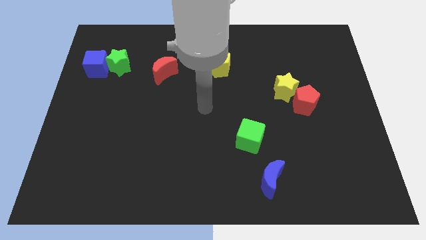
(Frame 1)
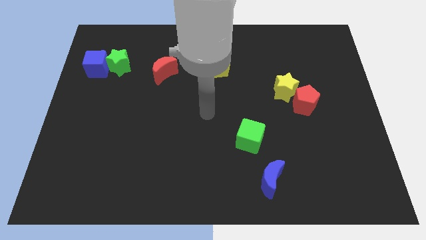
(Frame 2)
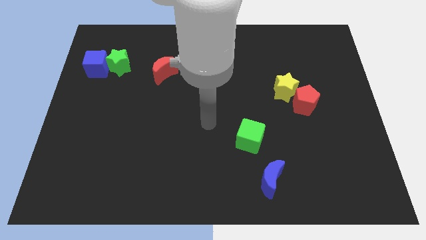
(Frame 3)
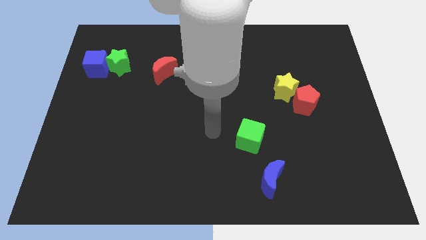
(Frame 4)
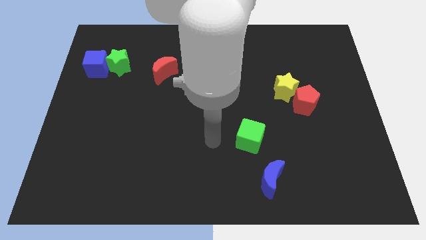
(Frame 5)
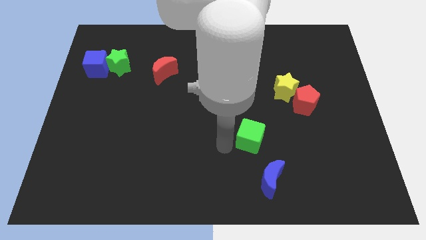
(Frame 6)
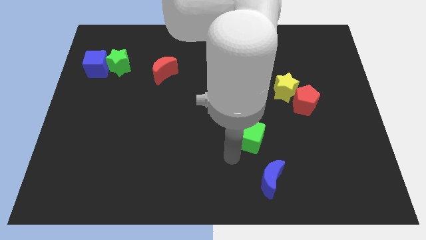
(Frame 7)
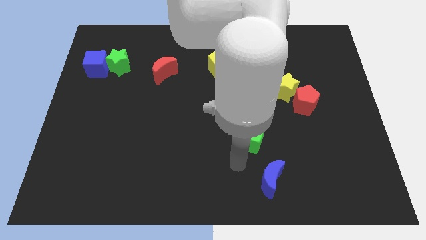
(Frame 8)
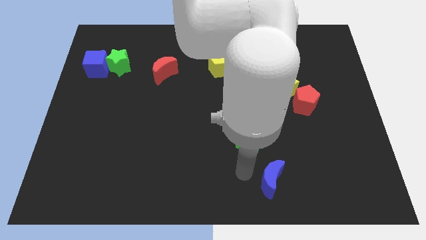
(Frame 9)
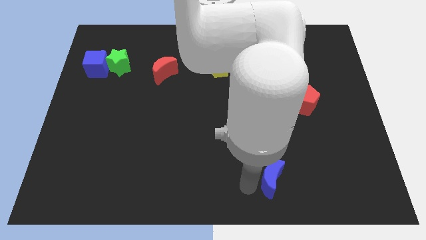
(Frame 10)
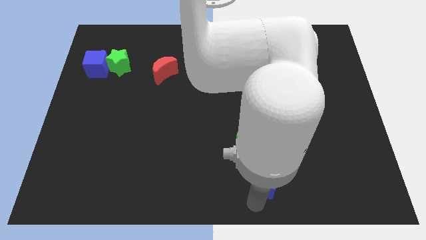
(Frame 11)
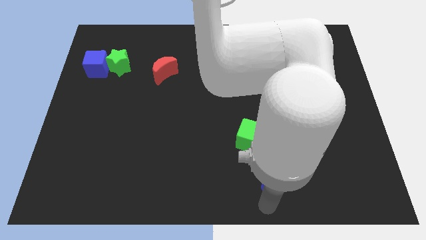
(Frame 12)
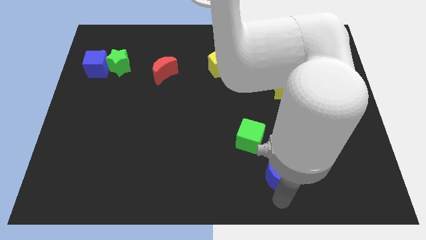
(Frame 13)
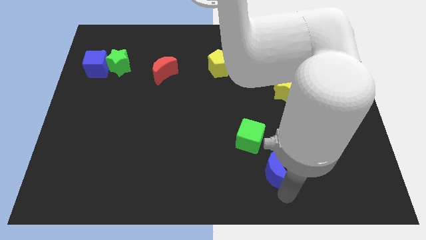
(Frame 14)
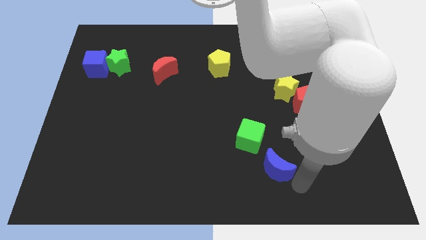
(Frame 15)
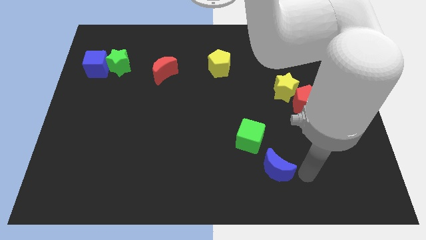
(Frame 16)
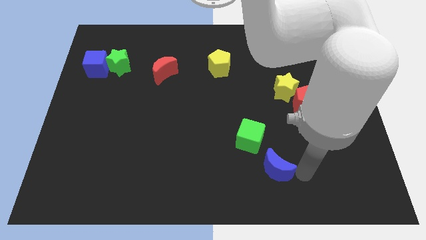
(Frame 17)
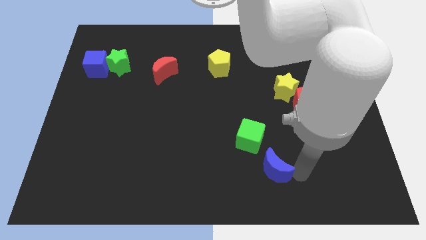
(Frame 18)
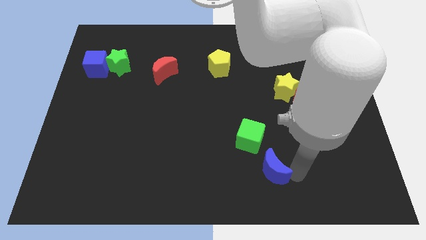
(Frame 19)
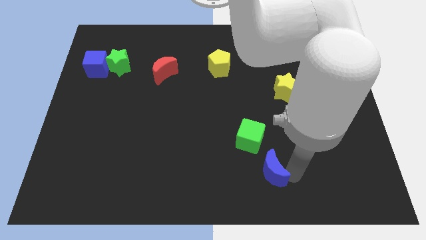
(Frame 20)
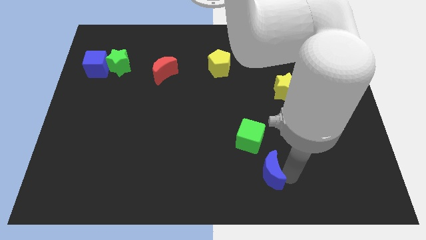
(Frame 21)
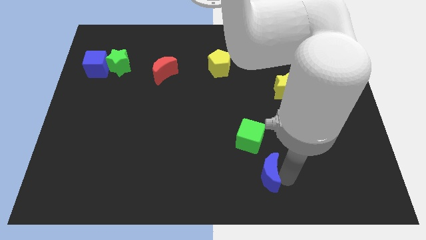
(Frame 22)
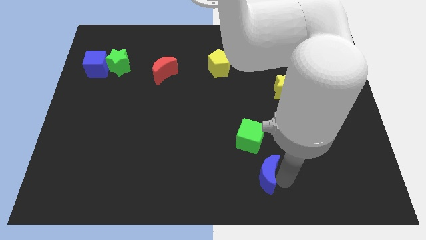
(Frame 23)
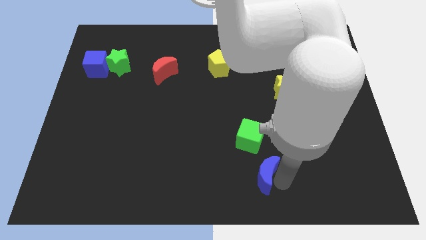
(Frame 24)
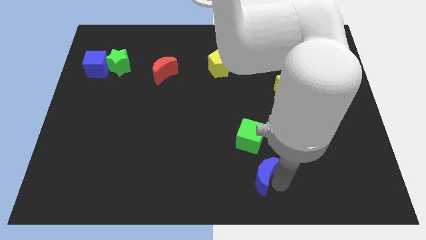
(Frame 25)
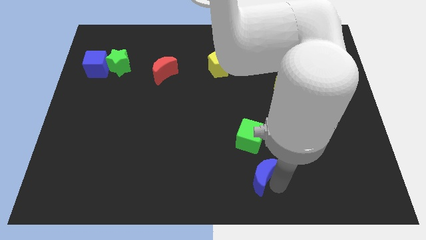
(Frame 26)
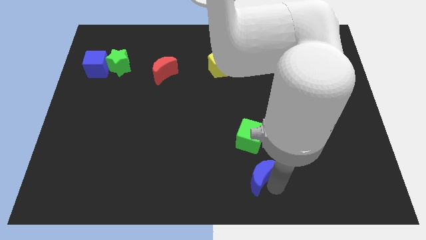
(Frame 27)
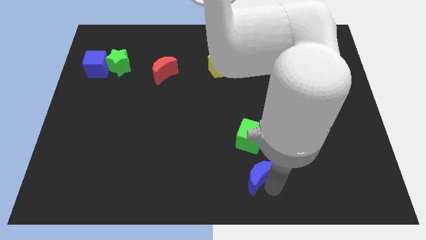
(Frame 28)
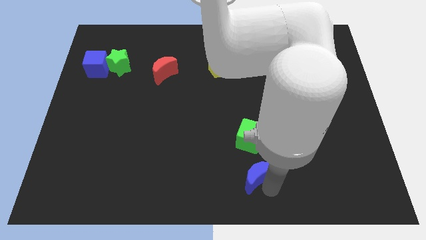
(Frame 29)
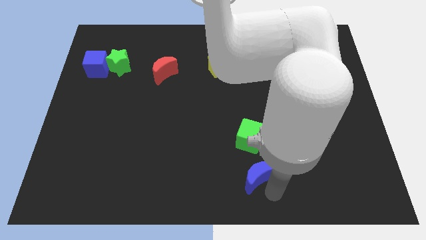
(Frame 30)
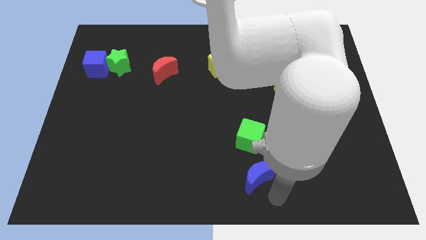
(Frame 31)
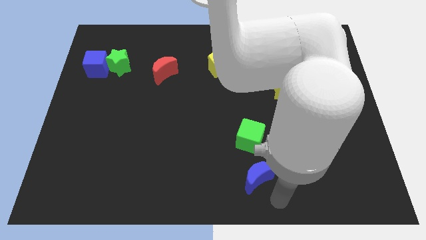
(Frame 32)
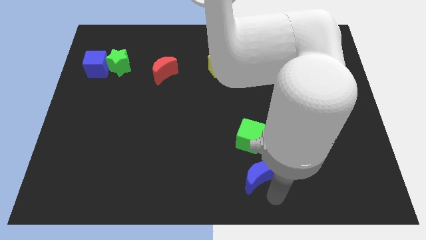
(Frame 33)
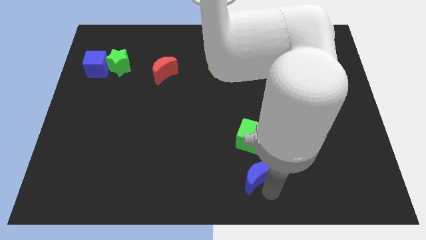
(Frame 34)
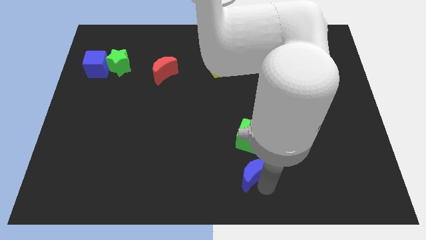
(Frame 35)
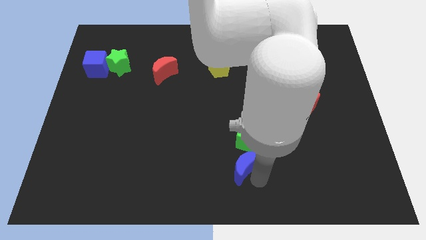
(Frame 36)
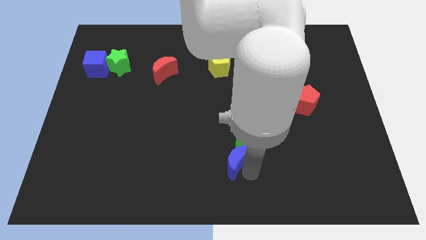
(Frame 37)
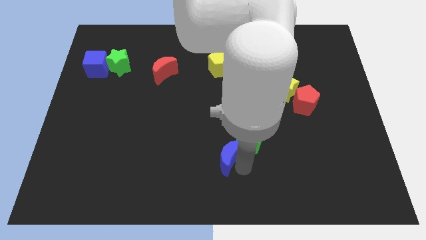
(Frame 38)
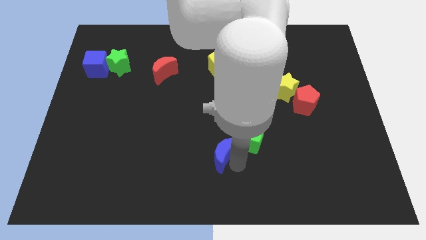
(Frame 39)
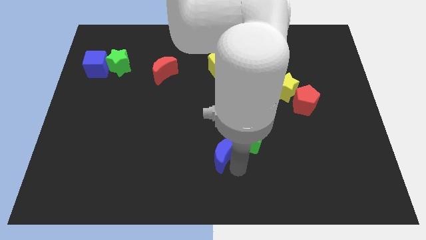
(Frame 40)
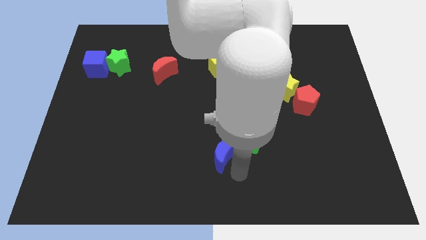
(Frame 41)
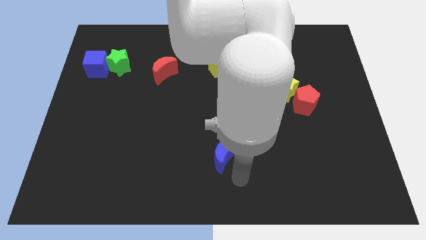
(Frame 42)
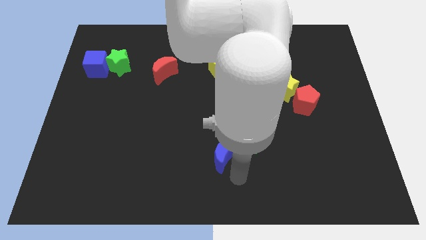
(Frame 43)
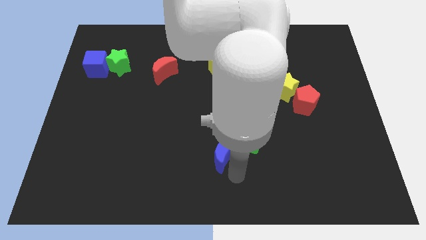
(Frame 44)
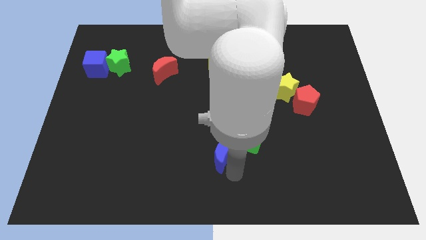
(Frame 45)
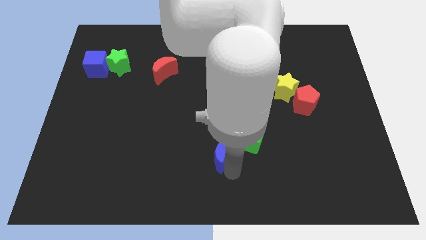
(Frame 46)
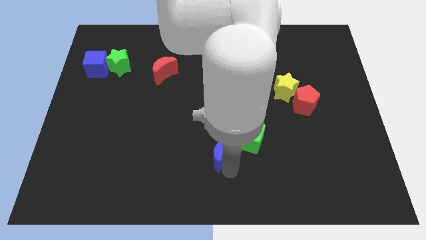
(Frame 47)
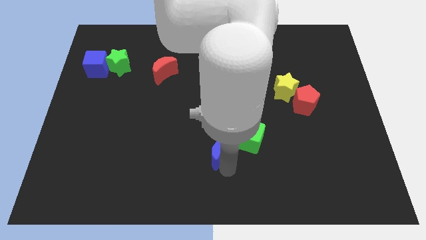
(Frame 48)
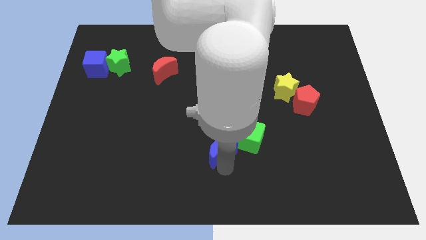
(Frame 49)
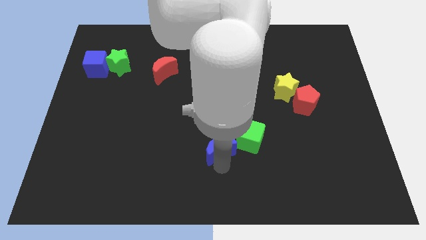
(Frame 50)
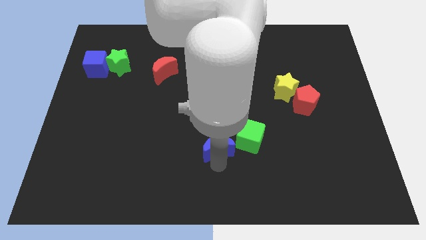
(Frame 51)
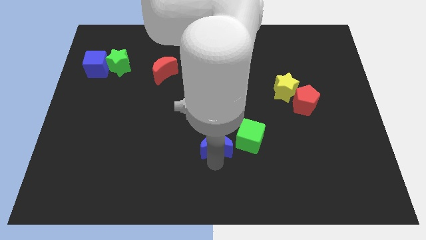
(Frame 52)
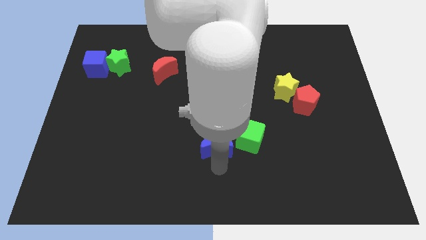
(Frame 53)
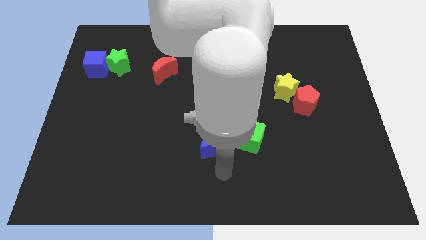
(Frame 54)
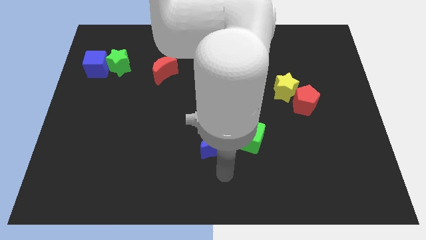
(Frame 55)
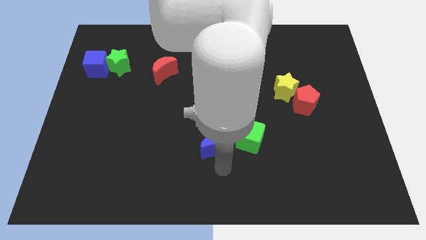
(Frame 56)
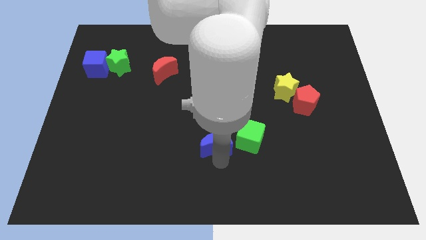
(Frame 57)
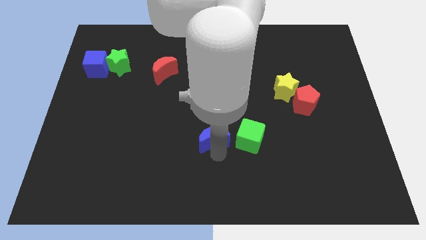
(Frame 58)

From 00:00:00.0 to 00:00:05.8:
put the blue moon to the center of the board

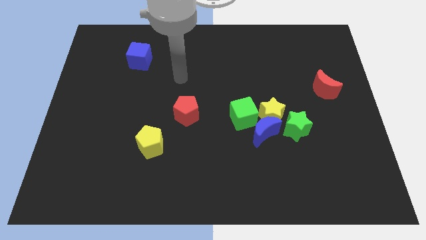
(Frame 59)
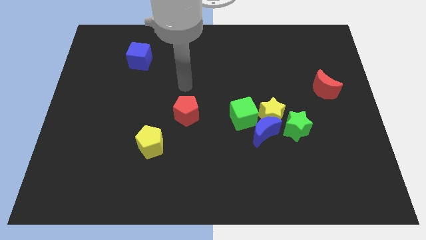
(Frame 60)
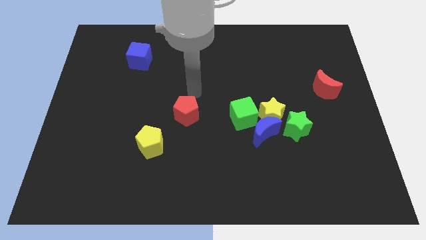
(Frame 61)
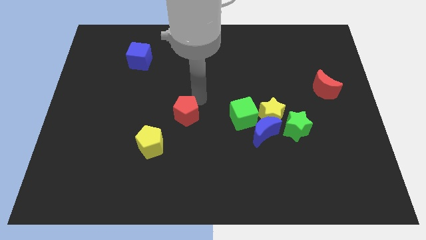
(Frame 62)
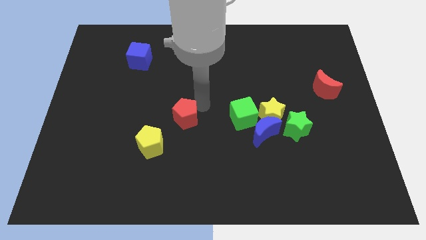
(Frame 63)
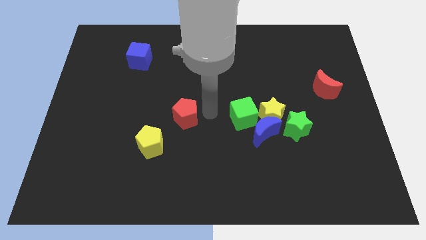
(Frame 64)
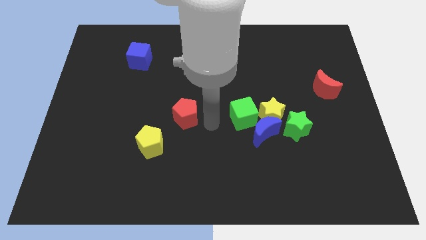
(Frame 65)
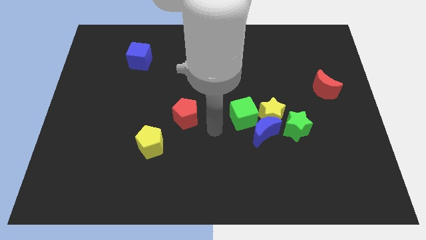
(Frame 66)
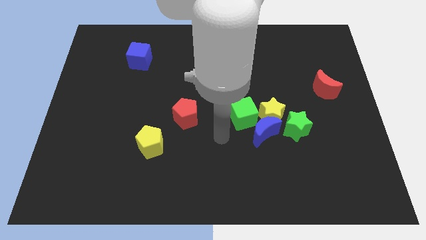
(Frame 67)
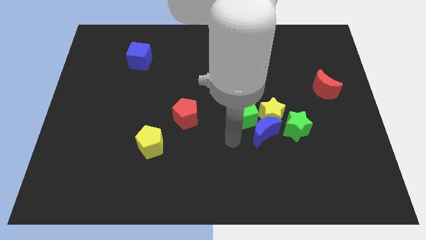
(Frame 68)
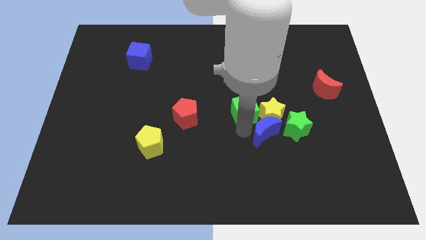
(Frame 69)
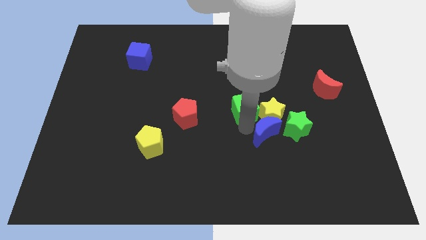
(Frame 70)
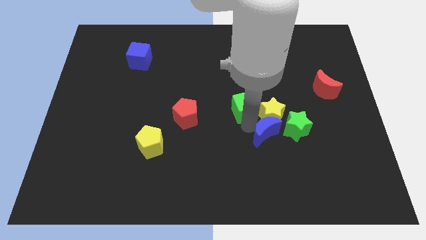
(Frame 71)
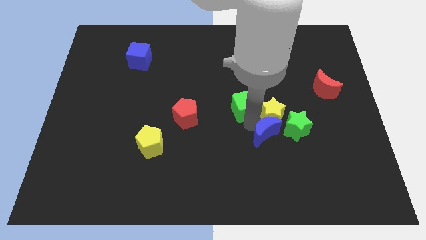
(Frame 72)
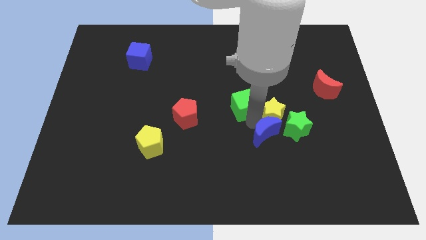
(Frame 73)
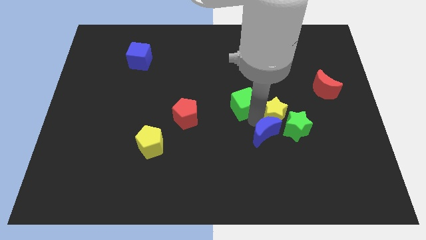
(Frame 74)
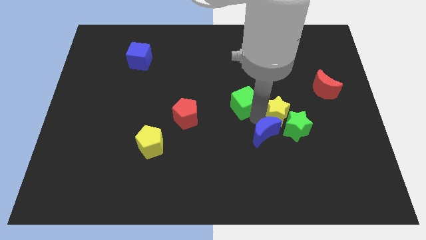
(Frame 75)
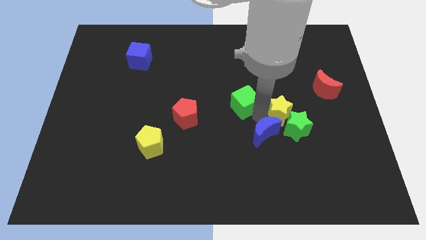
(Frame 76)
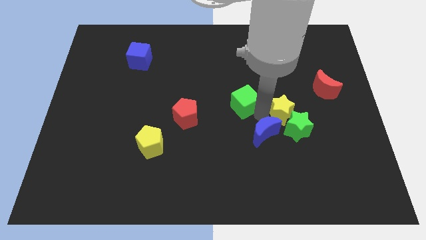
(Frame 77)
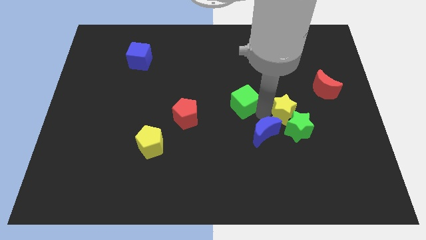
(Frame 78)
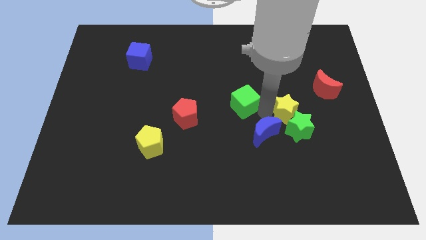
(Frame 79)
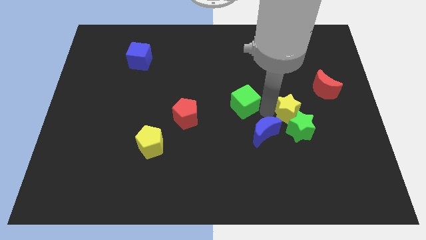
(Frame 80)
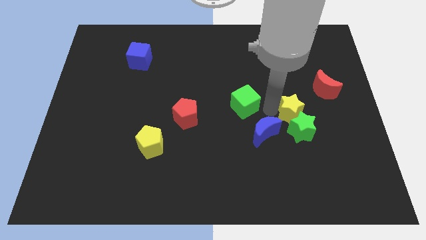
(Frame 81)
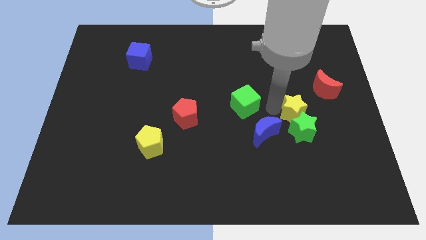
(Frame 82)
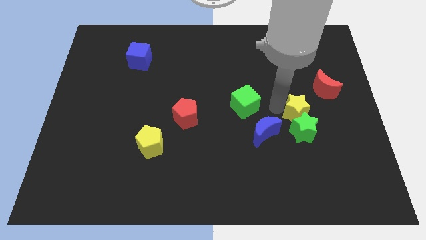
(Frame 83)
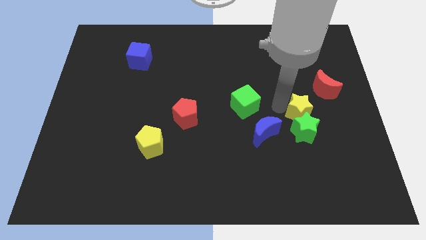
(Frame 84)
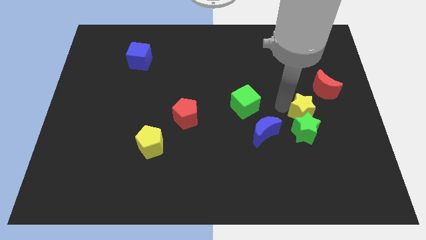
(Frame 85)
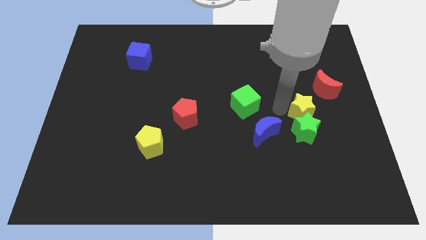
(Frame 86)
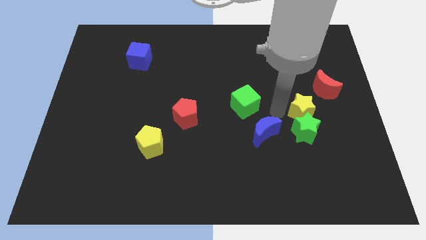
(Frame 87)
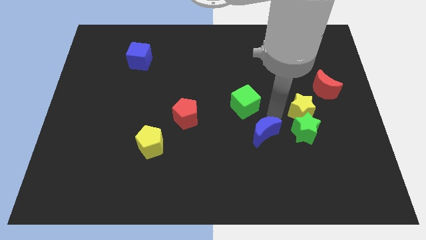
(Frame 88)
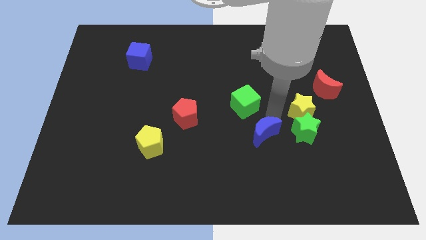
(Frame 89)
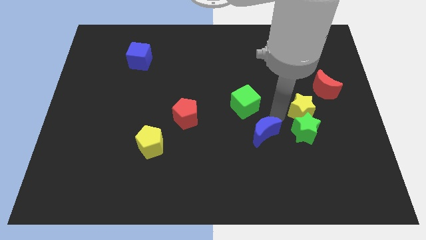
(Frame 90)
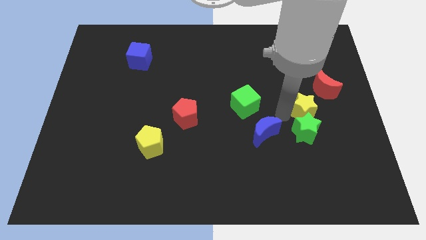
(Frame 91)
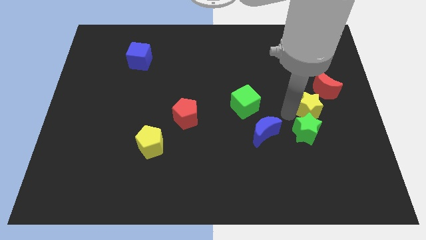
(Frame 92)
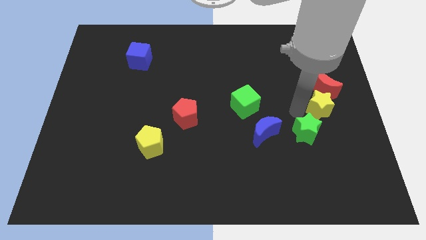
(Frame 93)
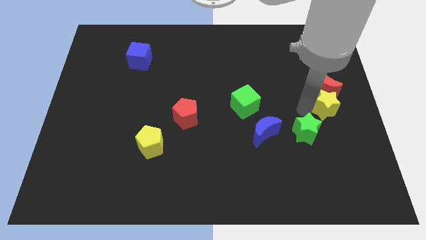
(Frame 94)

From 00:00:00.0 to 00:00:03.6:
put the yellow star to the right side of the board
